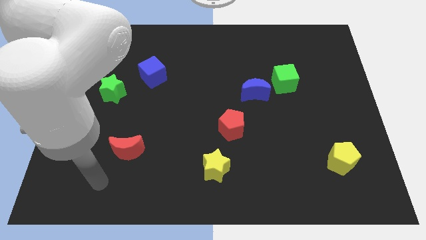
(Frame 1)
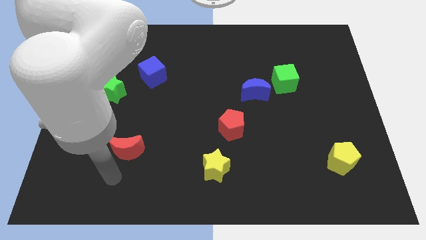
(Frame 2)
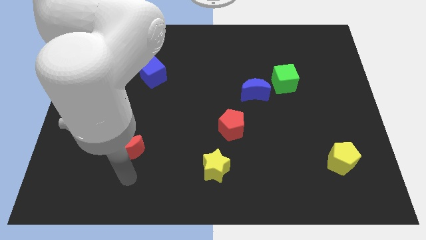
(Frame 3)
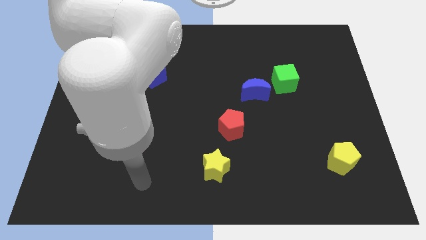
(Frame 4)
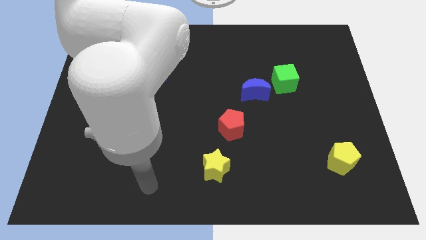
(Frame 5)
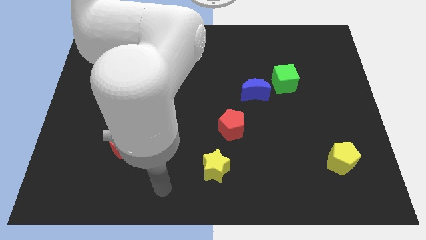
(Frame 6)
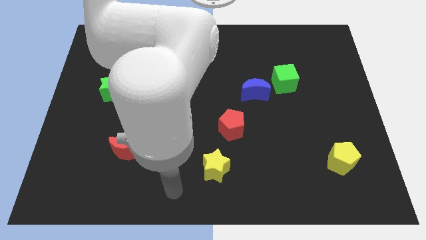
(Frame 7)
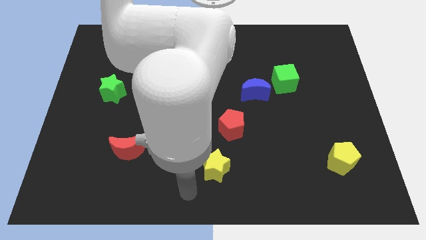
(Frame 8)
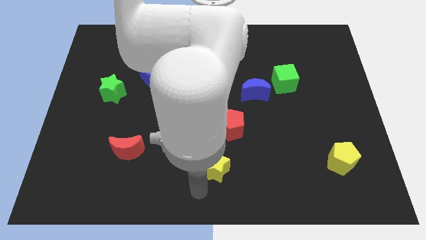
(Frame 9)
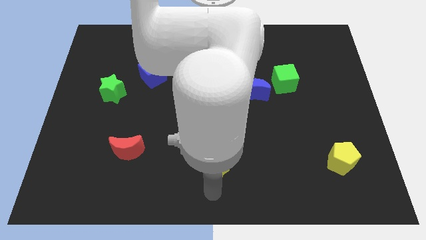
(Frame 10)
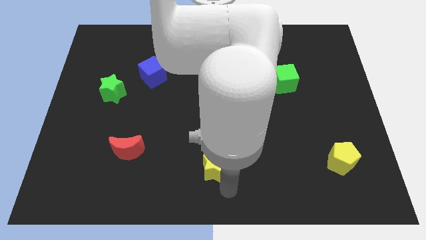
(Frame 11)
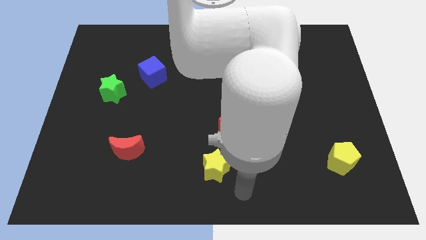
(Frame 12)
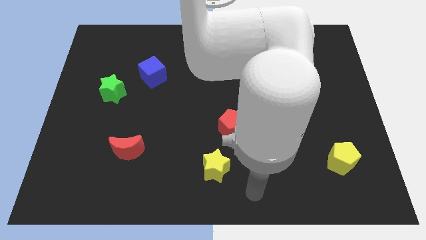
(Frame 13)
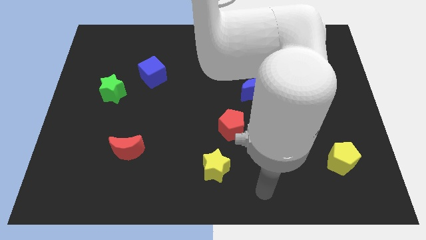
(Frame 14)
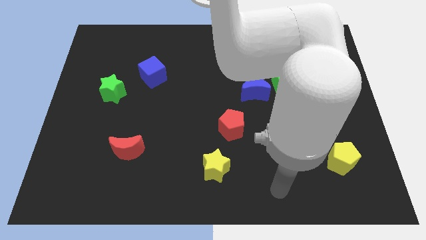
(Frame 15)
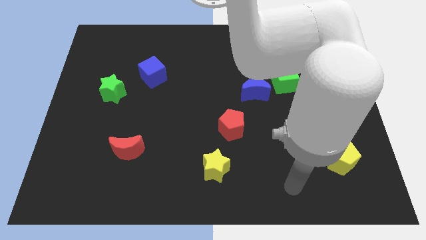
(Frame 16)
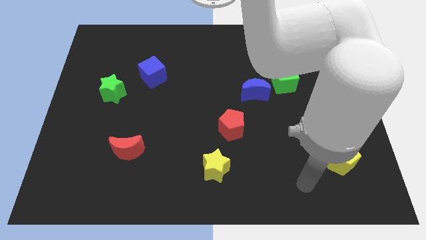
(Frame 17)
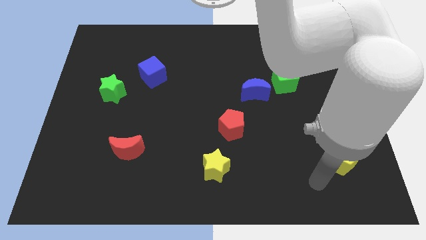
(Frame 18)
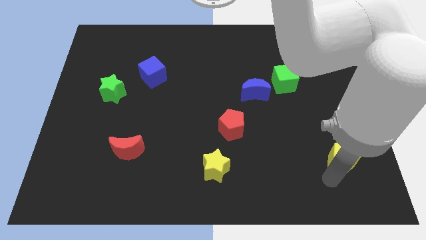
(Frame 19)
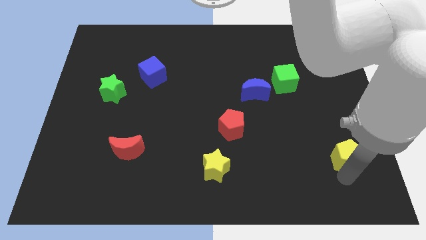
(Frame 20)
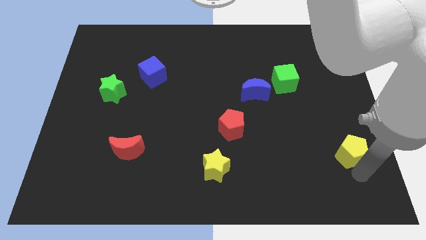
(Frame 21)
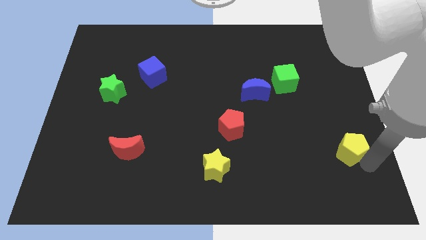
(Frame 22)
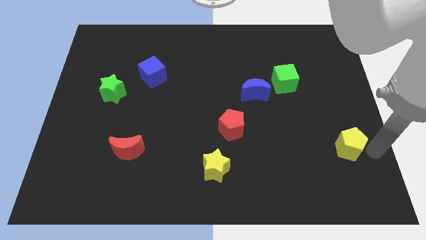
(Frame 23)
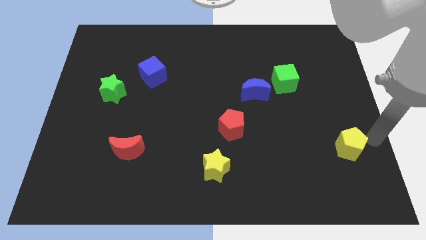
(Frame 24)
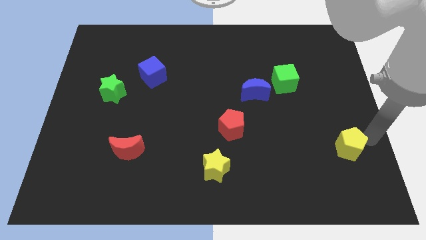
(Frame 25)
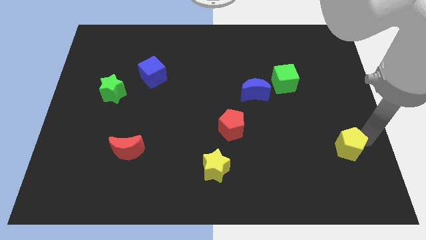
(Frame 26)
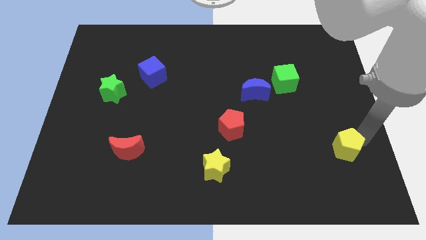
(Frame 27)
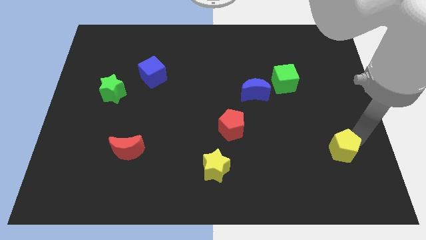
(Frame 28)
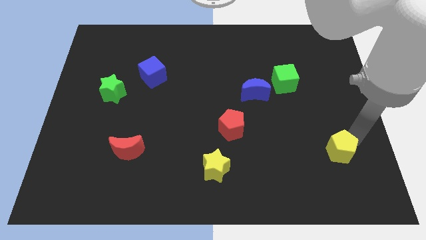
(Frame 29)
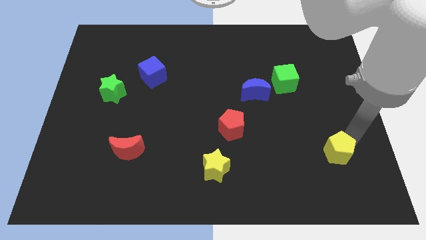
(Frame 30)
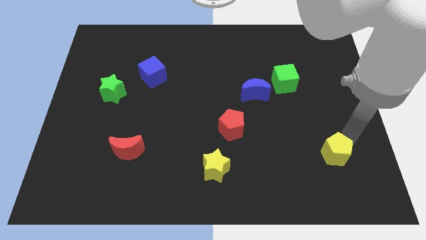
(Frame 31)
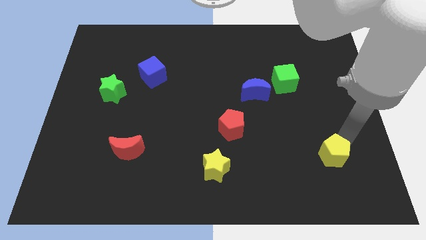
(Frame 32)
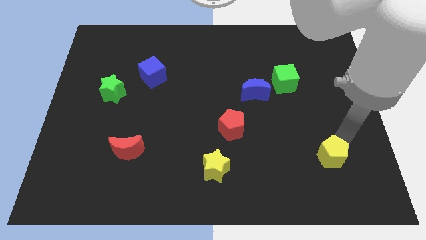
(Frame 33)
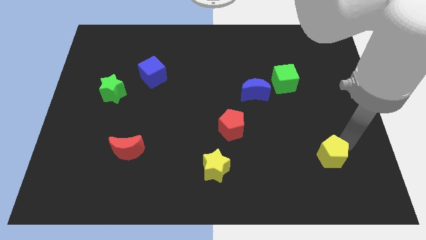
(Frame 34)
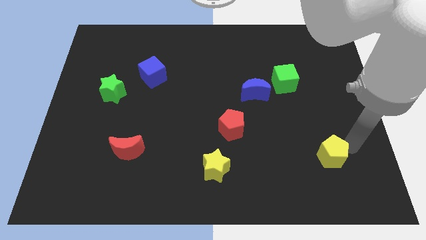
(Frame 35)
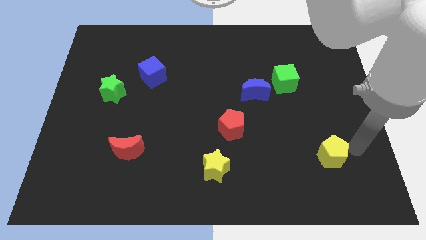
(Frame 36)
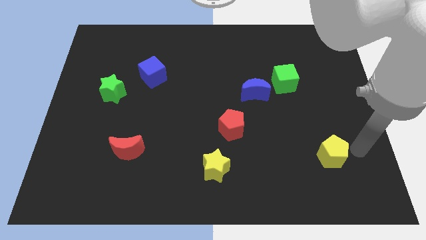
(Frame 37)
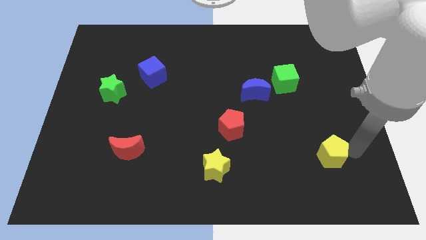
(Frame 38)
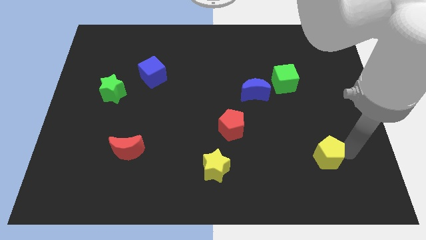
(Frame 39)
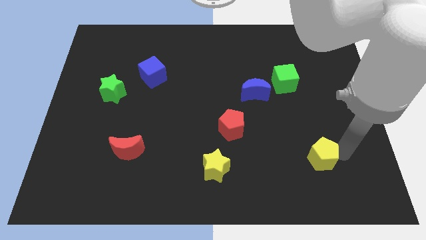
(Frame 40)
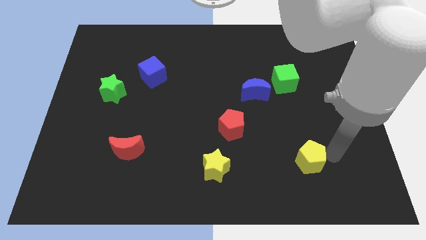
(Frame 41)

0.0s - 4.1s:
slightly push the yellow pentagon to the left

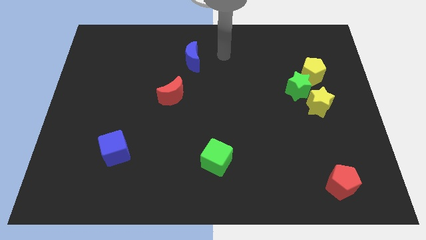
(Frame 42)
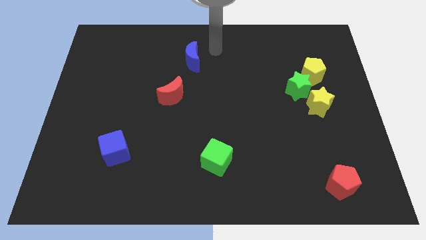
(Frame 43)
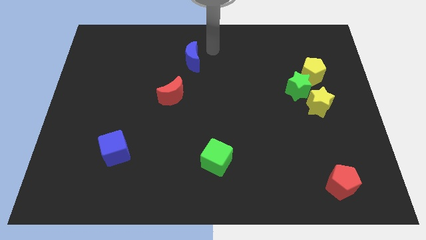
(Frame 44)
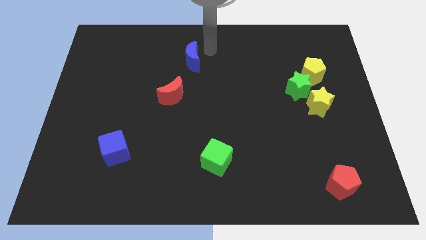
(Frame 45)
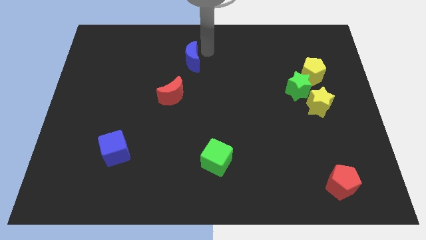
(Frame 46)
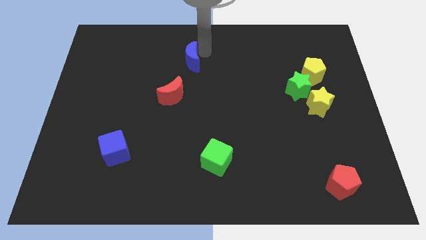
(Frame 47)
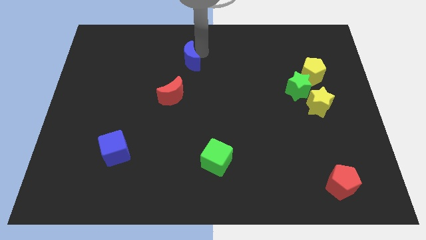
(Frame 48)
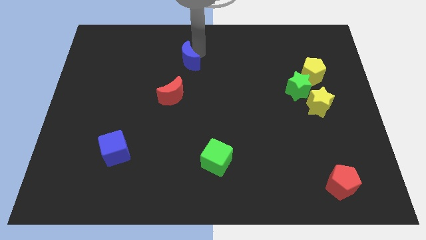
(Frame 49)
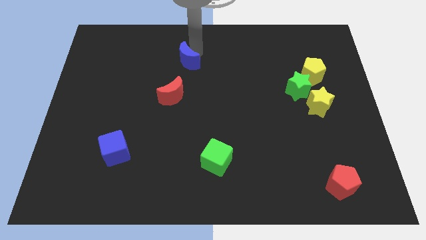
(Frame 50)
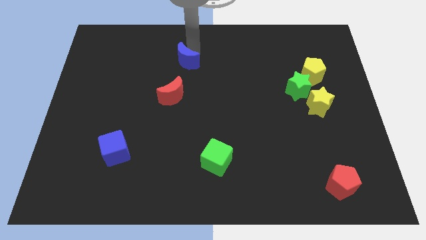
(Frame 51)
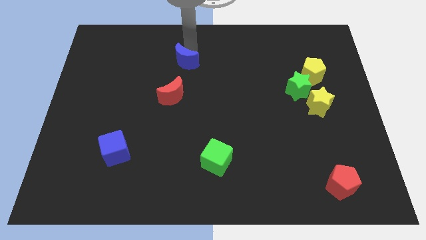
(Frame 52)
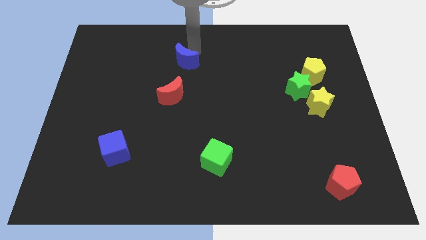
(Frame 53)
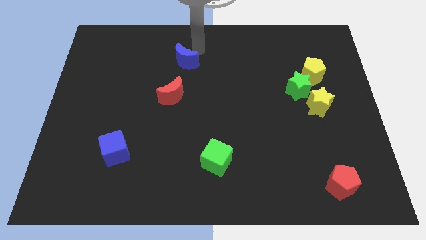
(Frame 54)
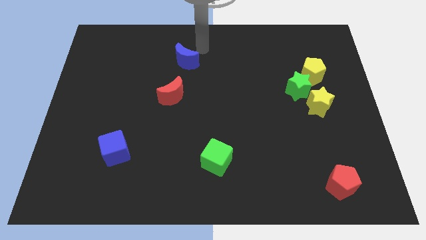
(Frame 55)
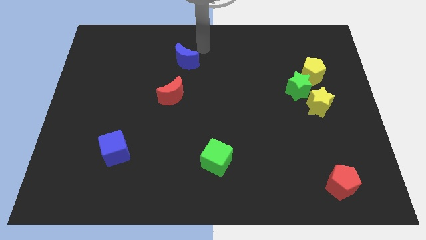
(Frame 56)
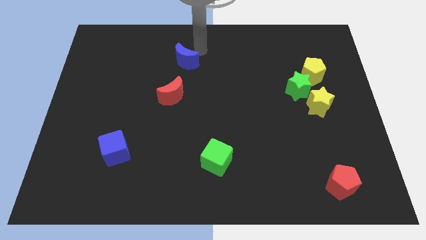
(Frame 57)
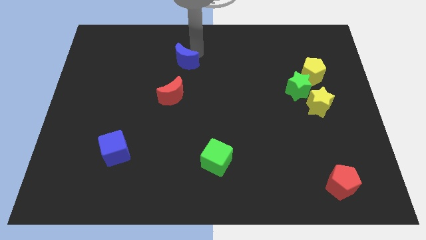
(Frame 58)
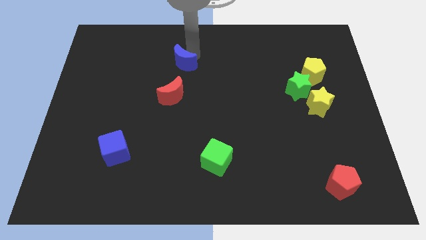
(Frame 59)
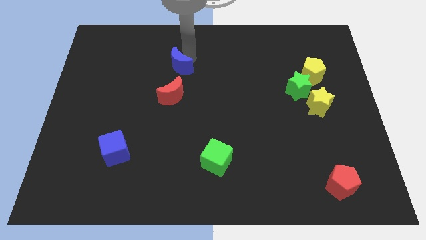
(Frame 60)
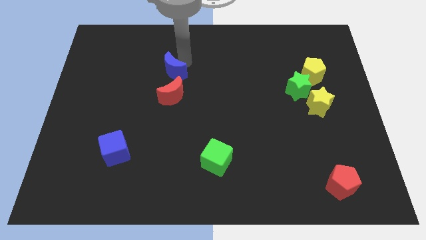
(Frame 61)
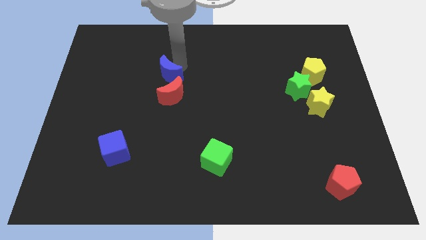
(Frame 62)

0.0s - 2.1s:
move the blue moon somewhat diagonally downwards and left

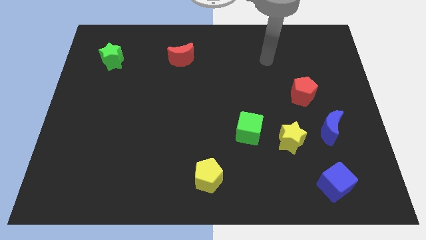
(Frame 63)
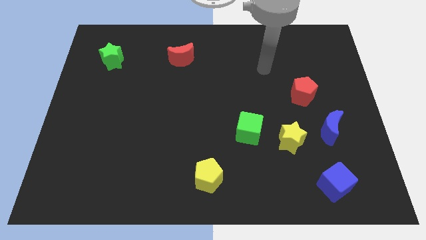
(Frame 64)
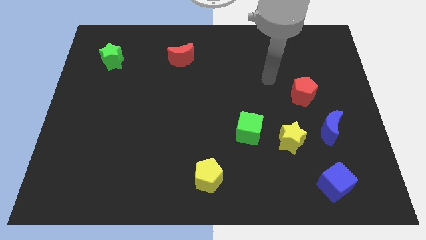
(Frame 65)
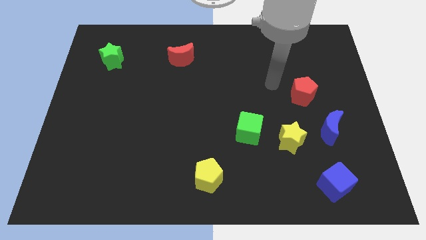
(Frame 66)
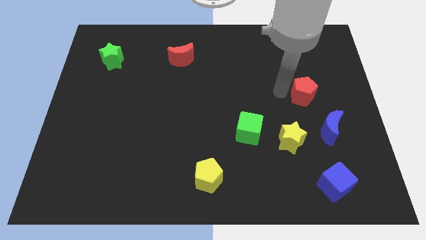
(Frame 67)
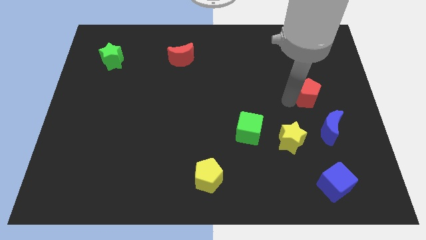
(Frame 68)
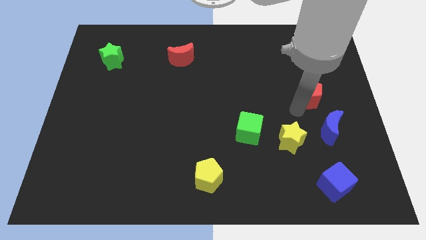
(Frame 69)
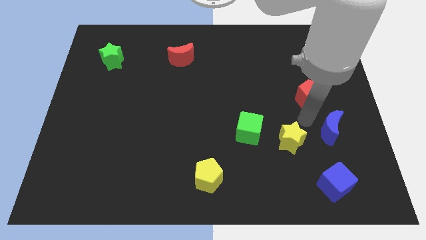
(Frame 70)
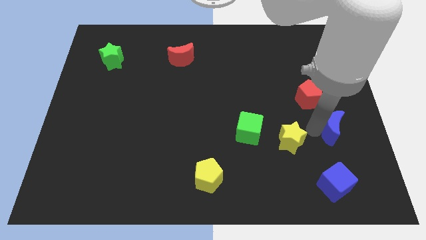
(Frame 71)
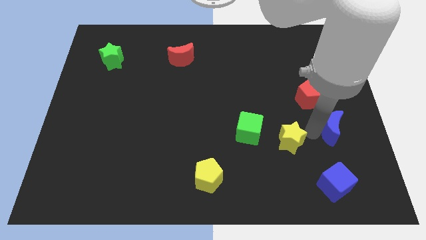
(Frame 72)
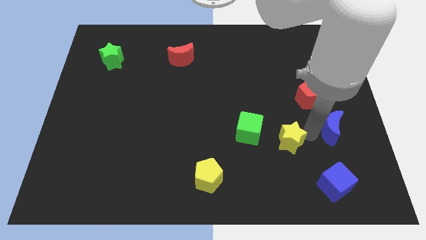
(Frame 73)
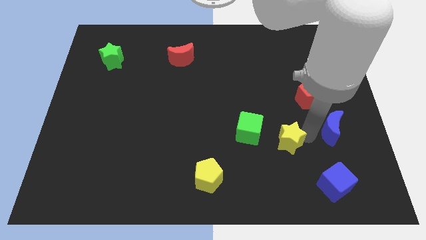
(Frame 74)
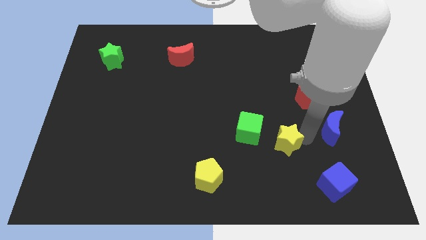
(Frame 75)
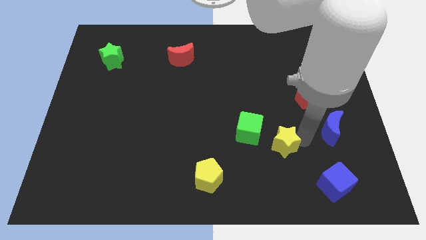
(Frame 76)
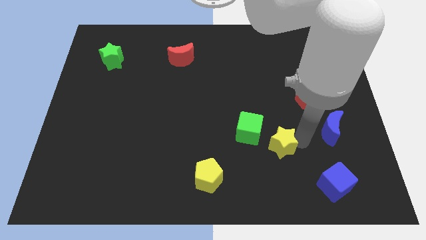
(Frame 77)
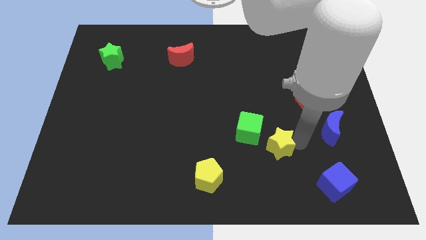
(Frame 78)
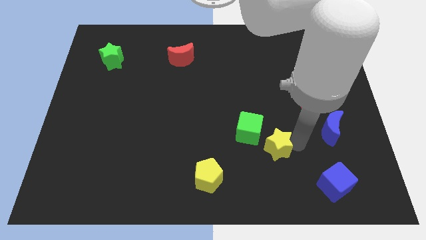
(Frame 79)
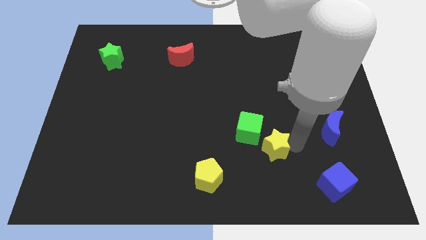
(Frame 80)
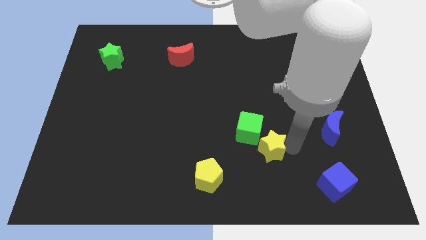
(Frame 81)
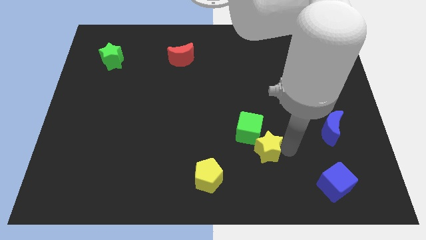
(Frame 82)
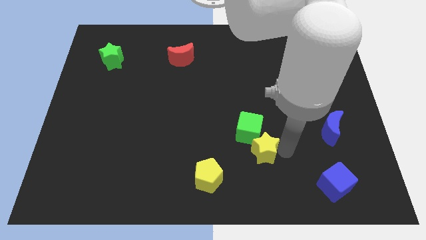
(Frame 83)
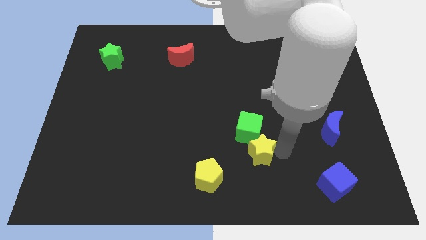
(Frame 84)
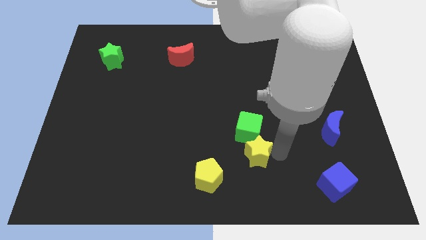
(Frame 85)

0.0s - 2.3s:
push the yellow star to the left a little

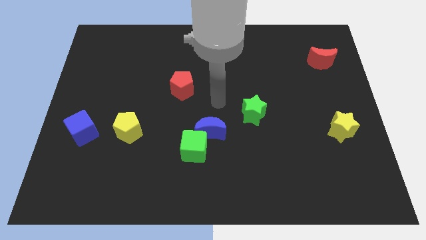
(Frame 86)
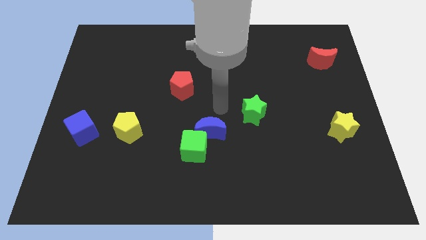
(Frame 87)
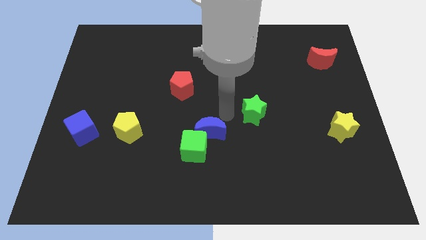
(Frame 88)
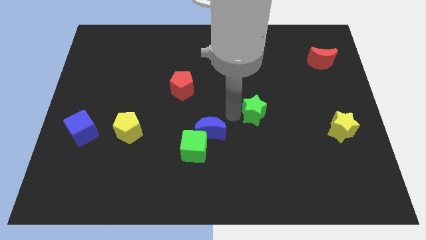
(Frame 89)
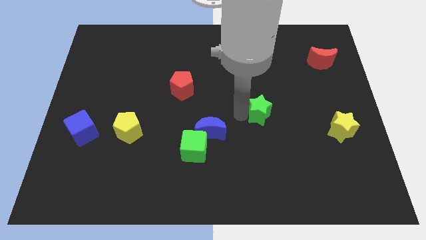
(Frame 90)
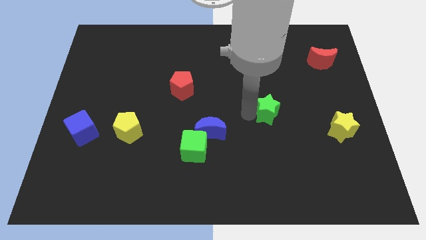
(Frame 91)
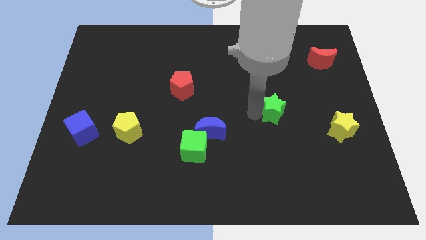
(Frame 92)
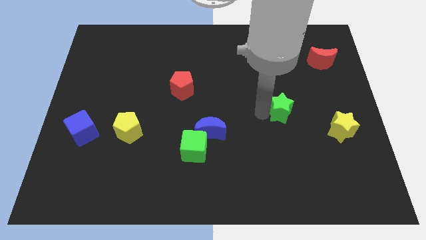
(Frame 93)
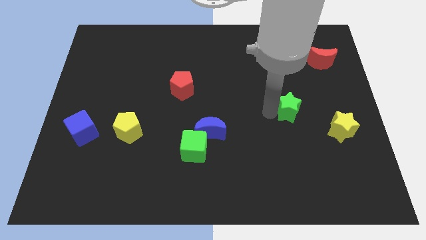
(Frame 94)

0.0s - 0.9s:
slightly move the green star right
